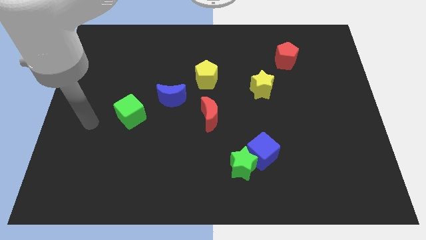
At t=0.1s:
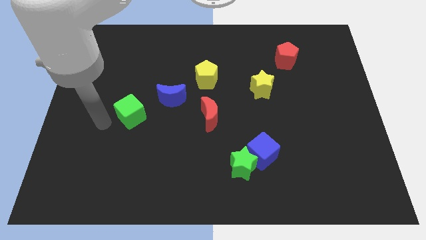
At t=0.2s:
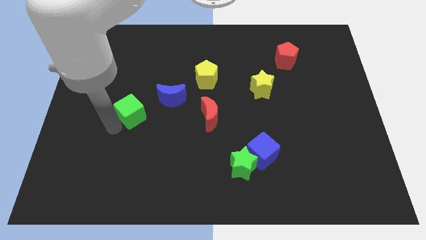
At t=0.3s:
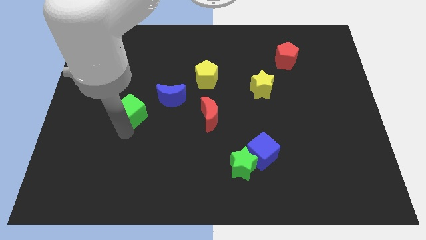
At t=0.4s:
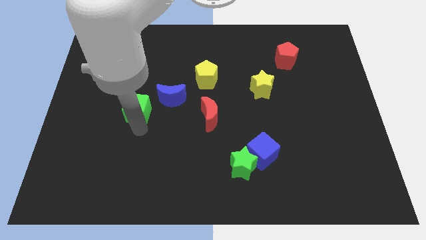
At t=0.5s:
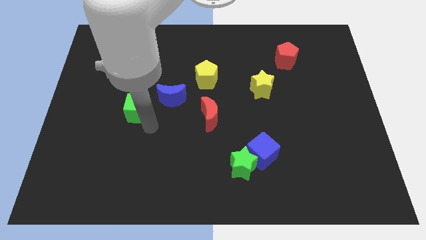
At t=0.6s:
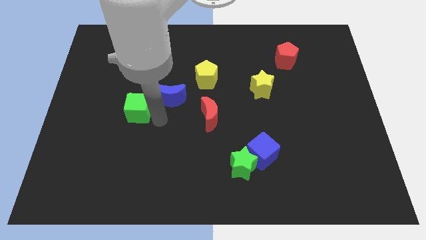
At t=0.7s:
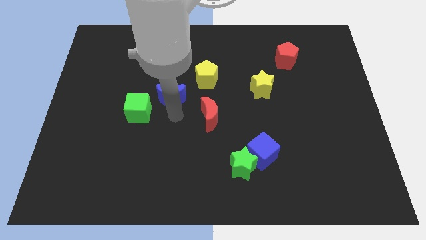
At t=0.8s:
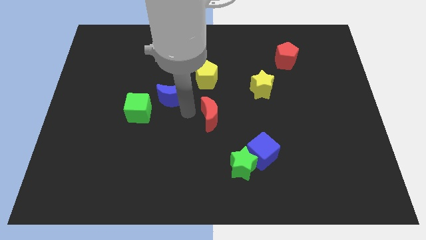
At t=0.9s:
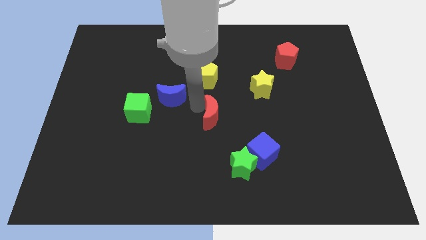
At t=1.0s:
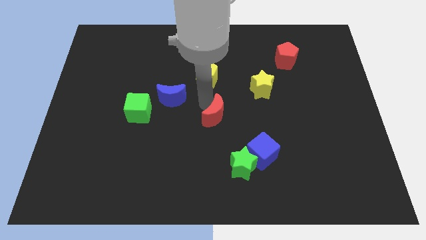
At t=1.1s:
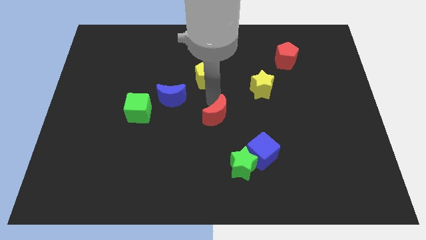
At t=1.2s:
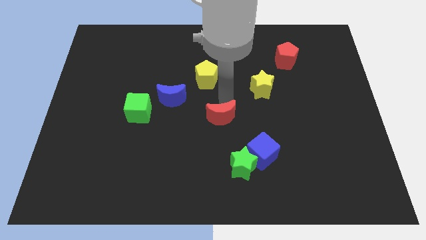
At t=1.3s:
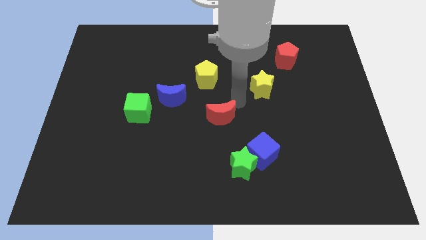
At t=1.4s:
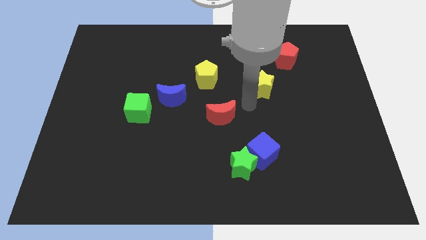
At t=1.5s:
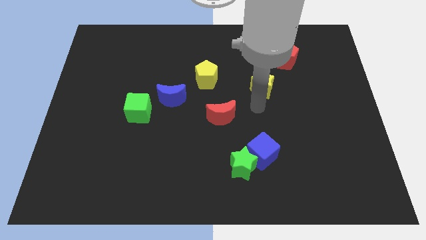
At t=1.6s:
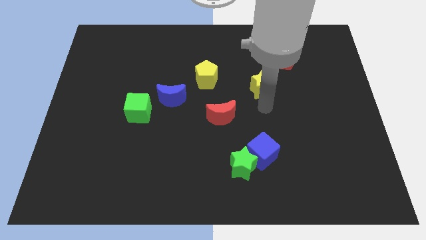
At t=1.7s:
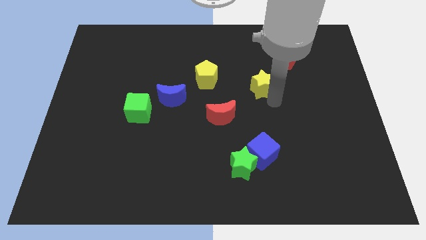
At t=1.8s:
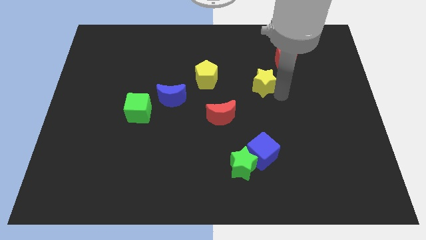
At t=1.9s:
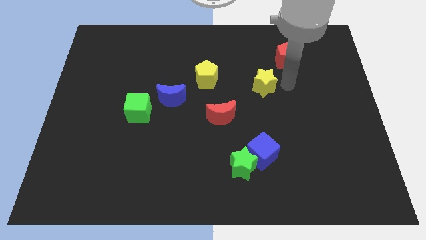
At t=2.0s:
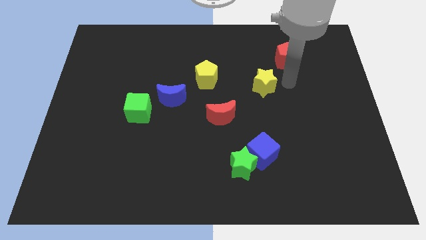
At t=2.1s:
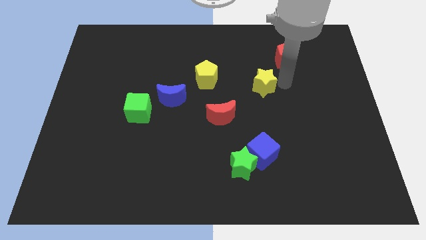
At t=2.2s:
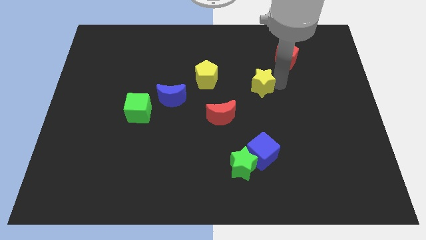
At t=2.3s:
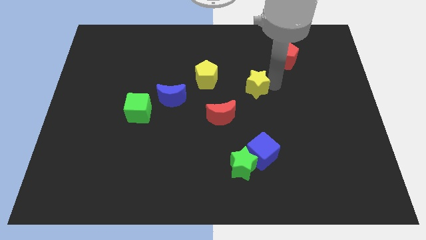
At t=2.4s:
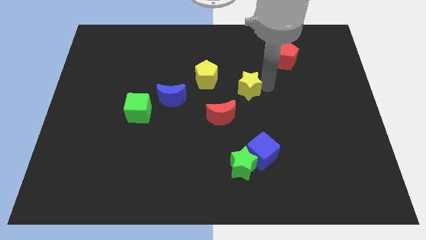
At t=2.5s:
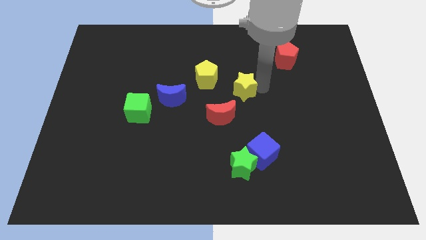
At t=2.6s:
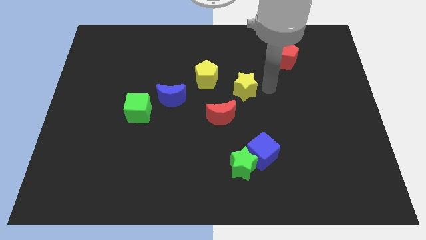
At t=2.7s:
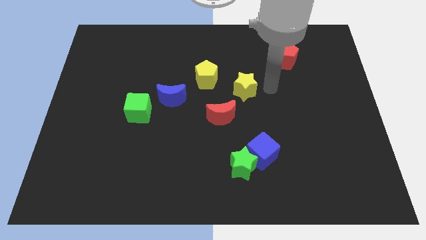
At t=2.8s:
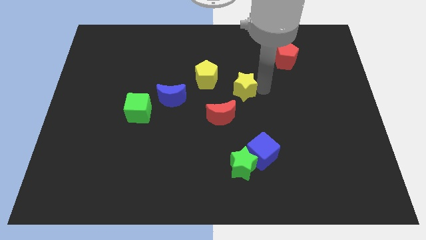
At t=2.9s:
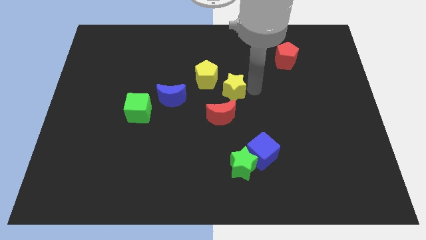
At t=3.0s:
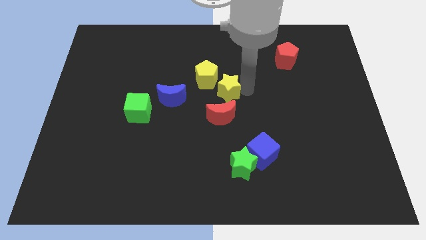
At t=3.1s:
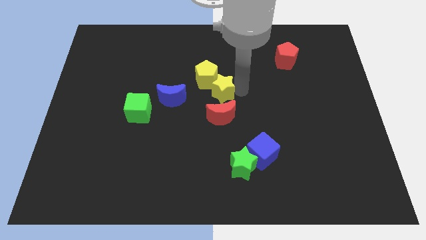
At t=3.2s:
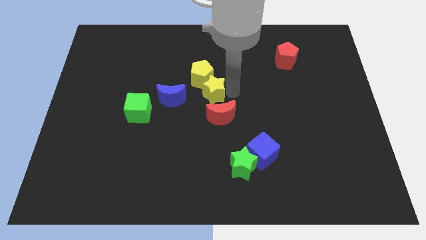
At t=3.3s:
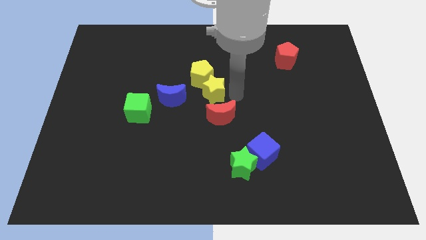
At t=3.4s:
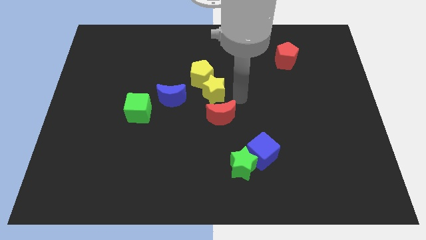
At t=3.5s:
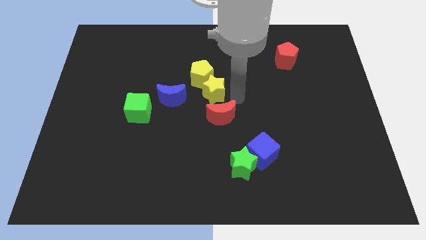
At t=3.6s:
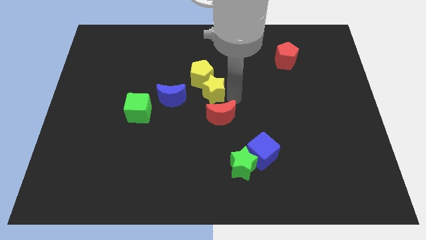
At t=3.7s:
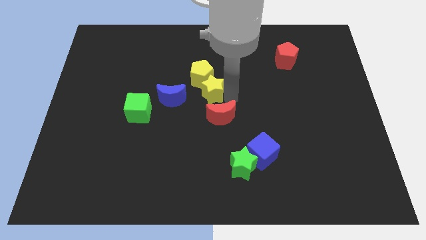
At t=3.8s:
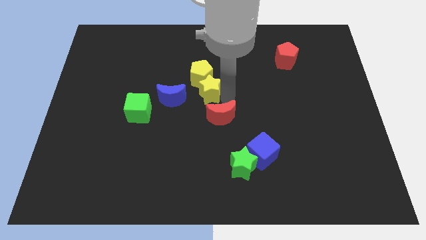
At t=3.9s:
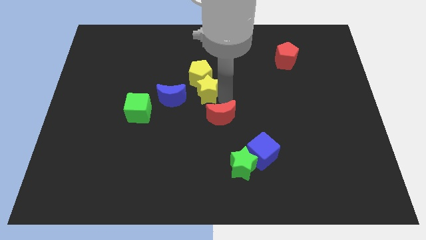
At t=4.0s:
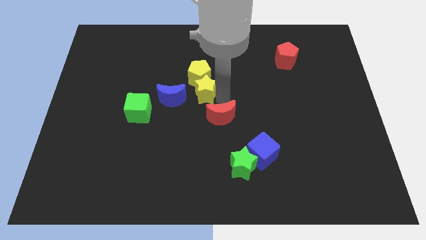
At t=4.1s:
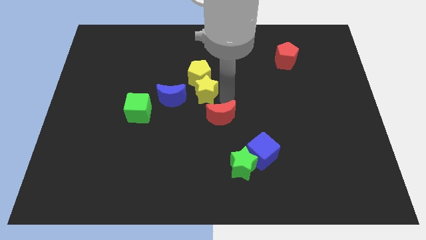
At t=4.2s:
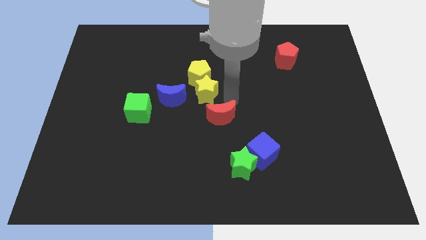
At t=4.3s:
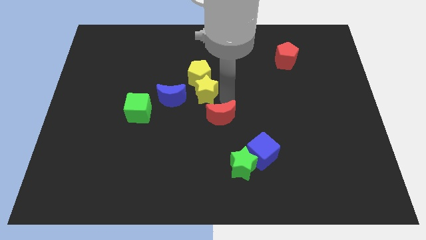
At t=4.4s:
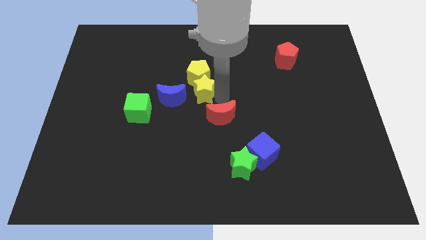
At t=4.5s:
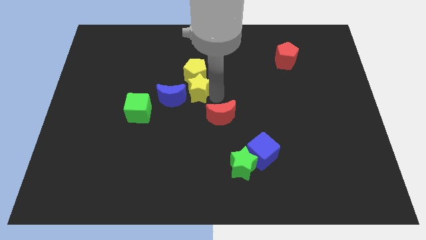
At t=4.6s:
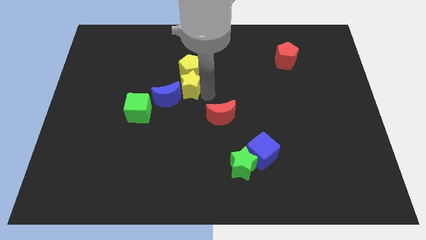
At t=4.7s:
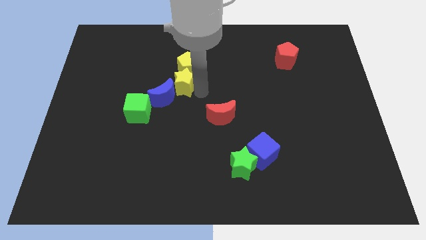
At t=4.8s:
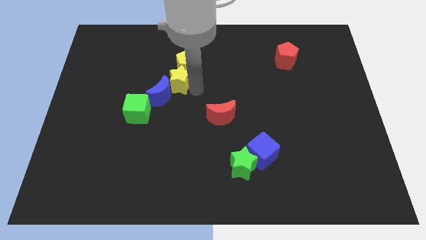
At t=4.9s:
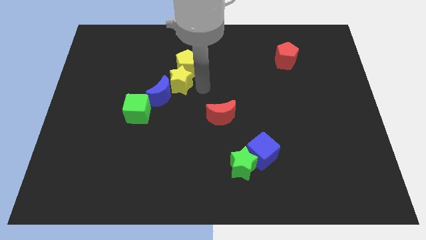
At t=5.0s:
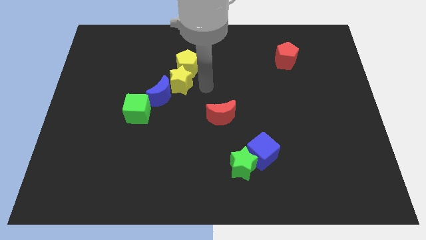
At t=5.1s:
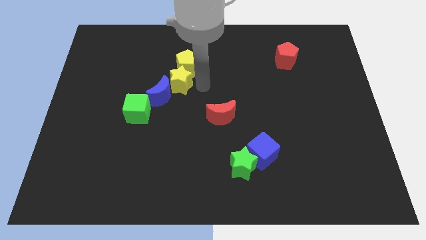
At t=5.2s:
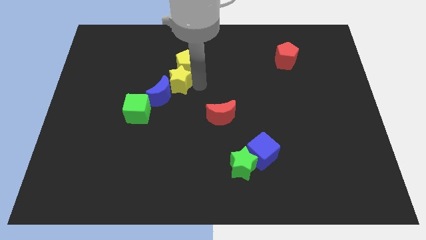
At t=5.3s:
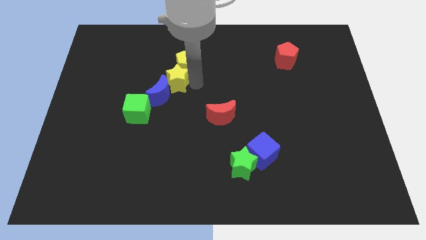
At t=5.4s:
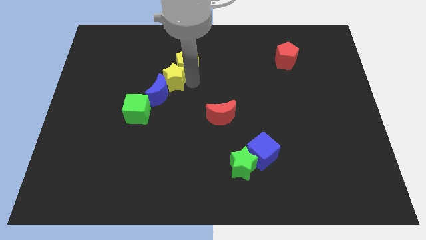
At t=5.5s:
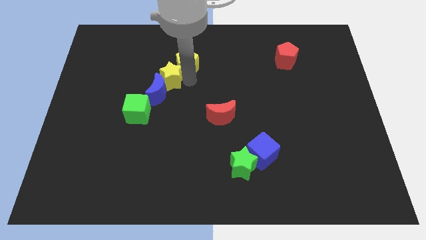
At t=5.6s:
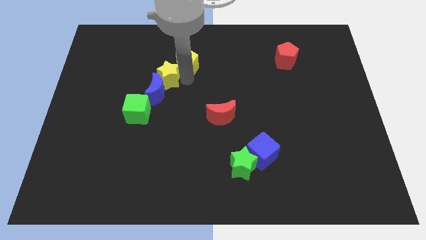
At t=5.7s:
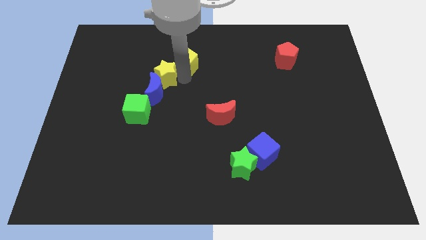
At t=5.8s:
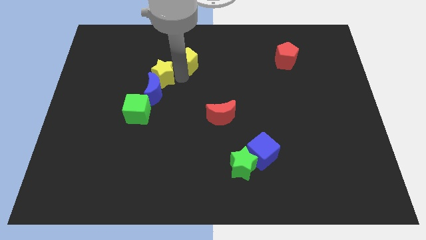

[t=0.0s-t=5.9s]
slide the yellow star to the top of the green cube

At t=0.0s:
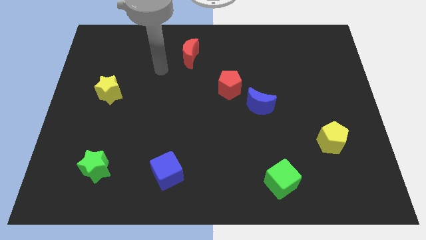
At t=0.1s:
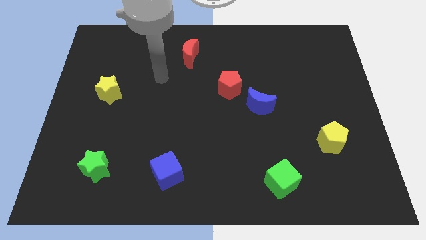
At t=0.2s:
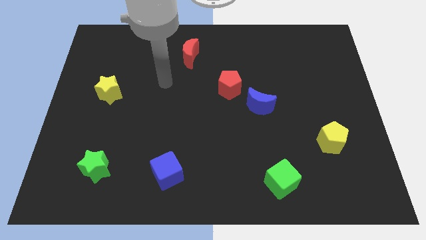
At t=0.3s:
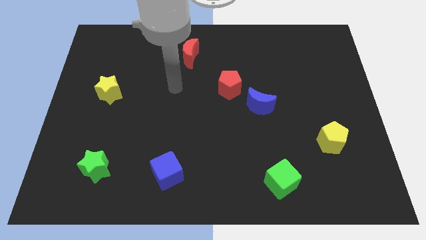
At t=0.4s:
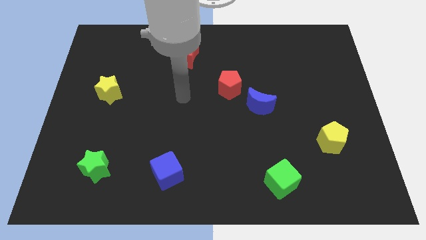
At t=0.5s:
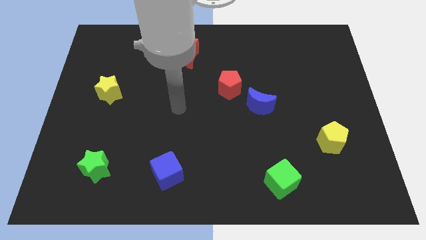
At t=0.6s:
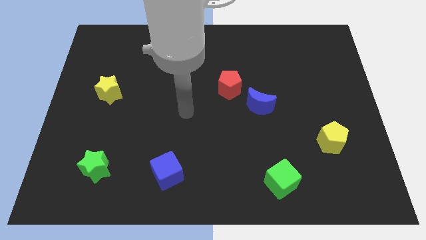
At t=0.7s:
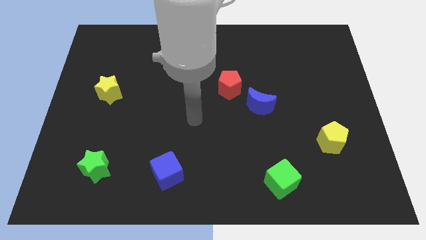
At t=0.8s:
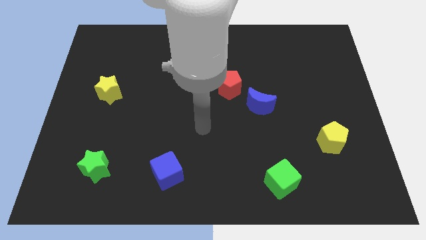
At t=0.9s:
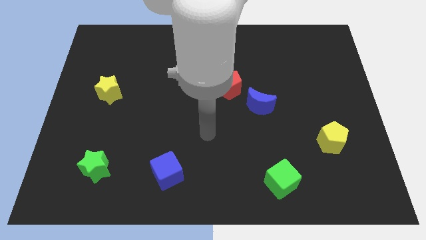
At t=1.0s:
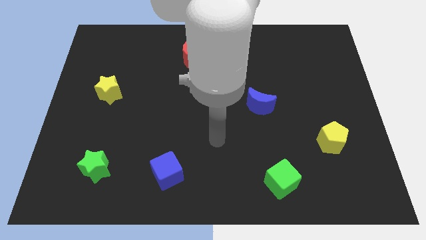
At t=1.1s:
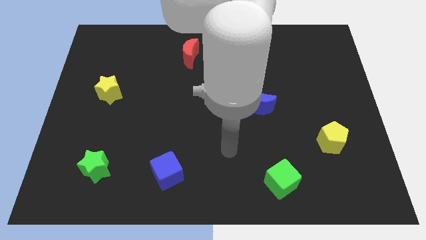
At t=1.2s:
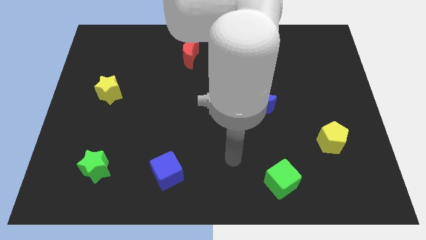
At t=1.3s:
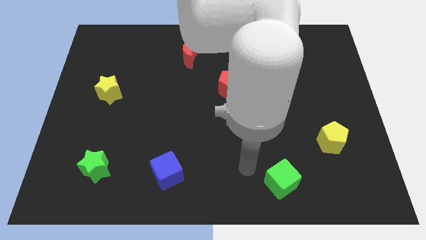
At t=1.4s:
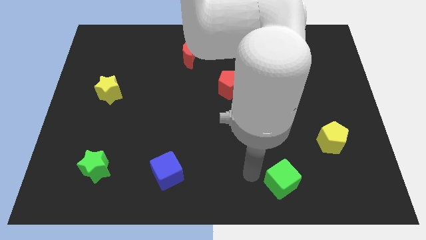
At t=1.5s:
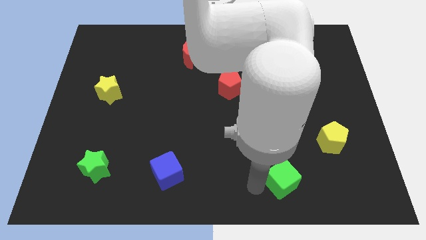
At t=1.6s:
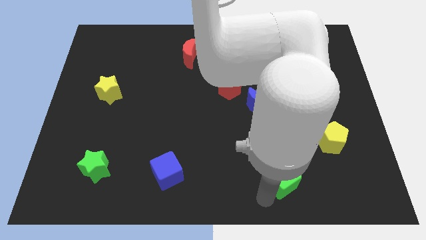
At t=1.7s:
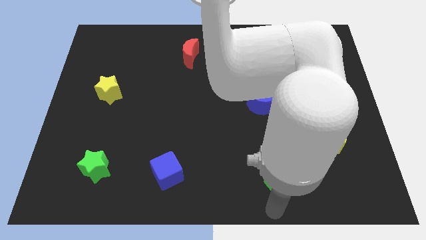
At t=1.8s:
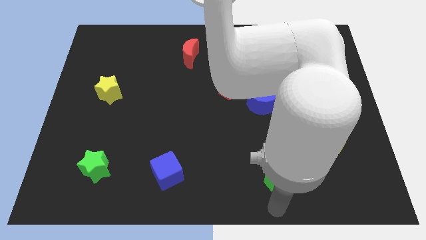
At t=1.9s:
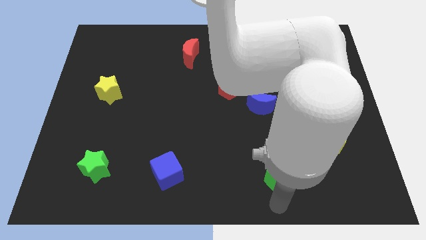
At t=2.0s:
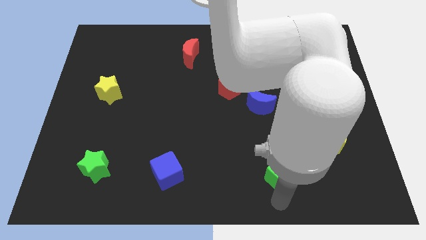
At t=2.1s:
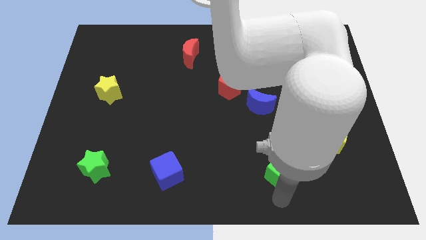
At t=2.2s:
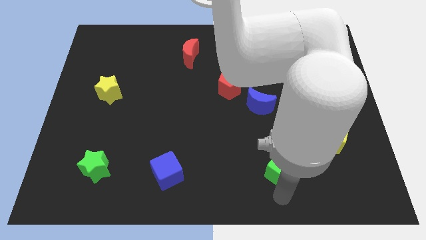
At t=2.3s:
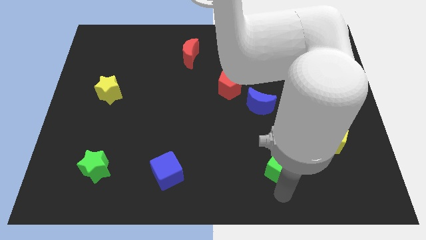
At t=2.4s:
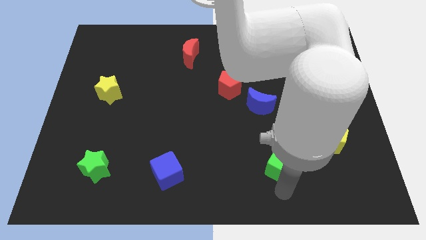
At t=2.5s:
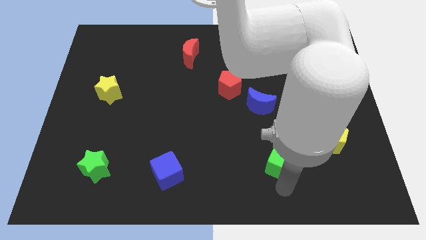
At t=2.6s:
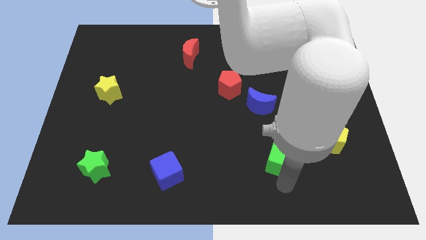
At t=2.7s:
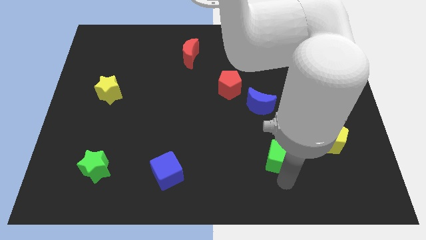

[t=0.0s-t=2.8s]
move the green cube left of the yellow pentagon
